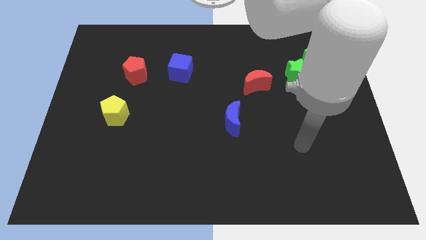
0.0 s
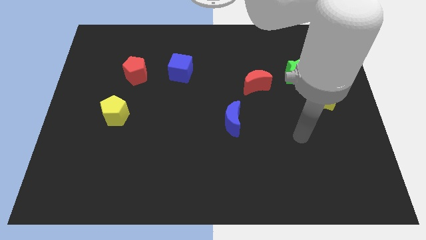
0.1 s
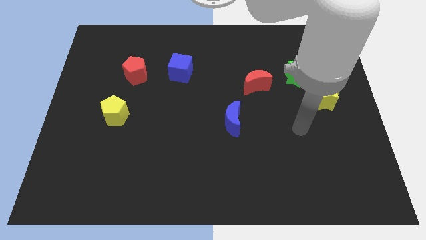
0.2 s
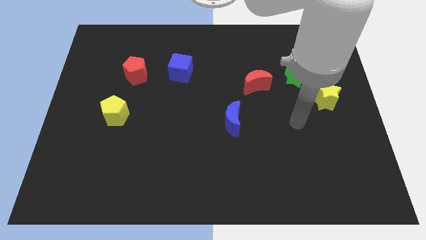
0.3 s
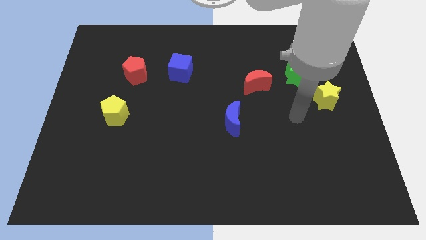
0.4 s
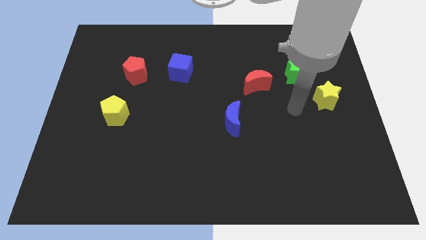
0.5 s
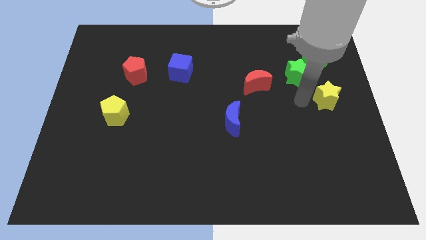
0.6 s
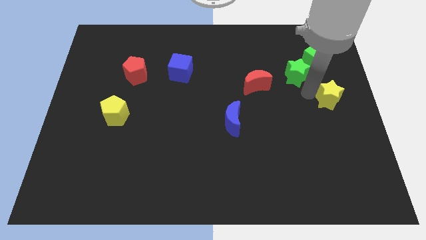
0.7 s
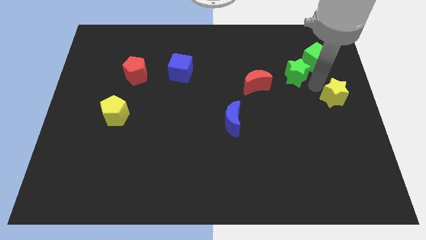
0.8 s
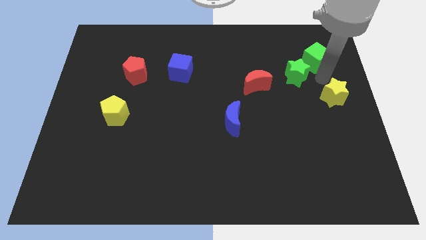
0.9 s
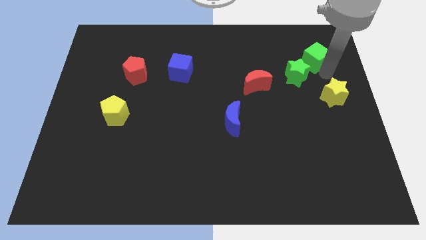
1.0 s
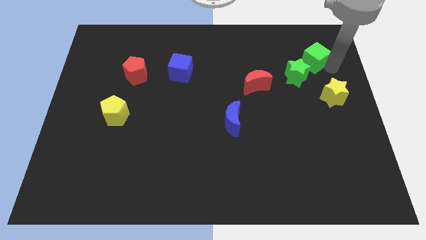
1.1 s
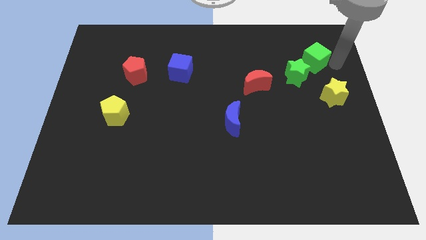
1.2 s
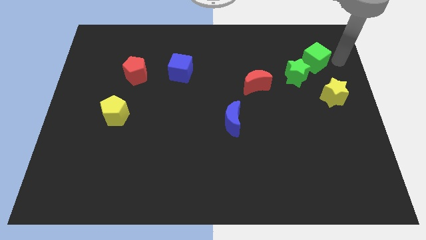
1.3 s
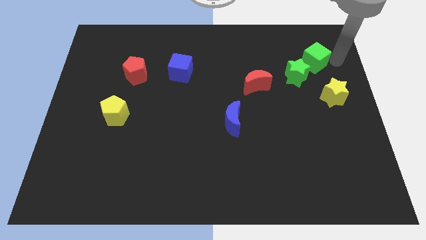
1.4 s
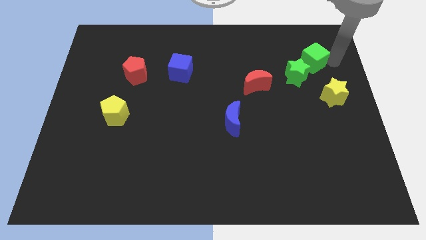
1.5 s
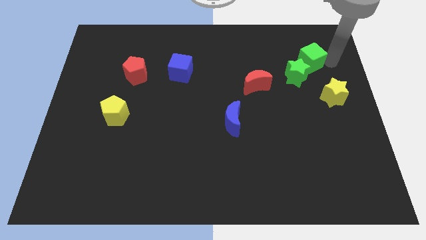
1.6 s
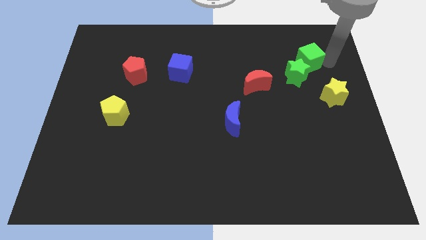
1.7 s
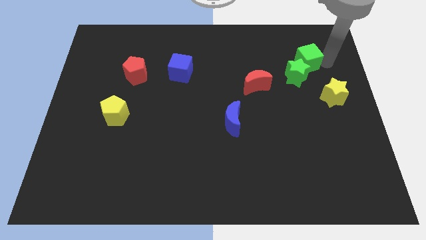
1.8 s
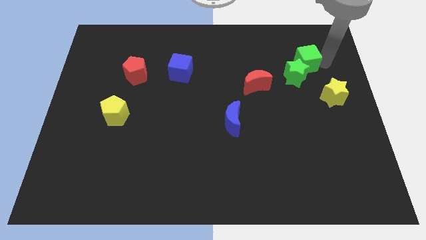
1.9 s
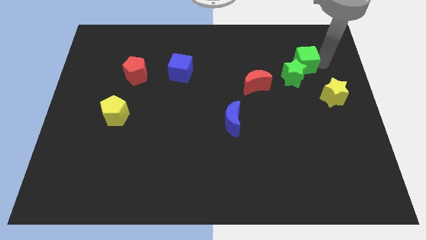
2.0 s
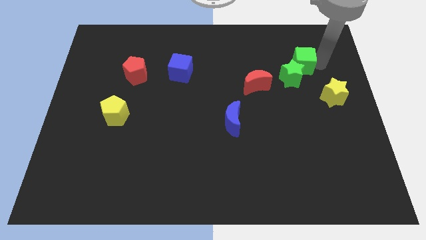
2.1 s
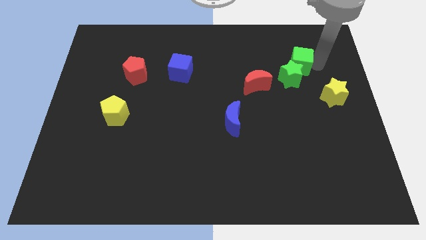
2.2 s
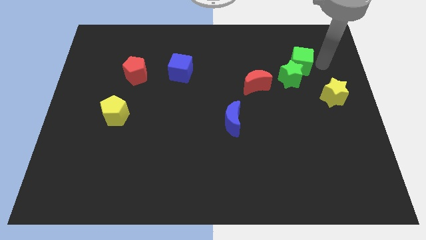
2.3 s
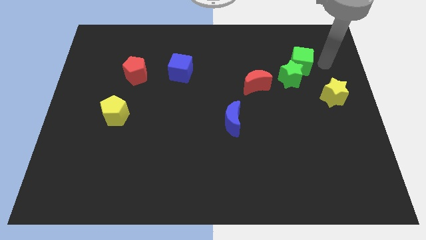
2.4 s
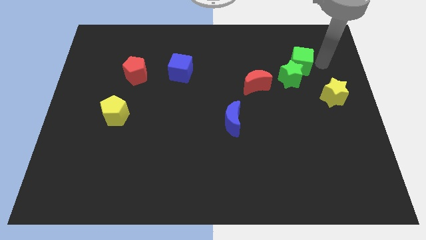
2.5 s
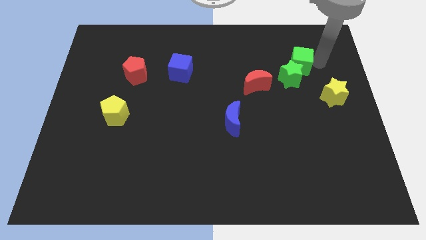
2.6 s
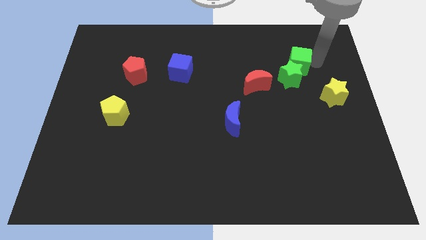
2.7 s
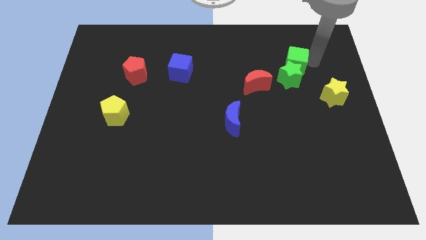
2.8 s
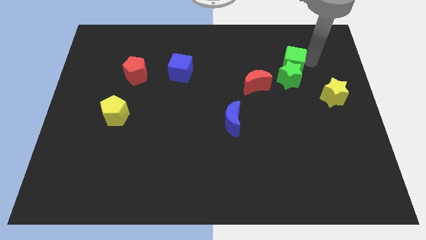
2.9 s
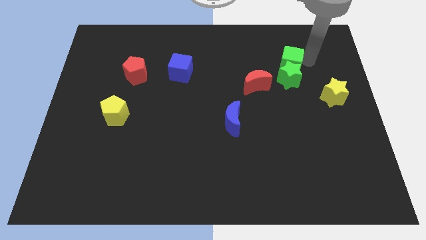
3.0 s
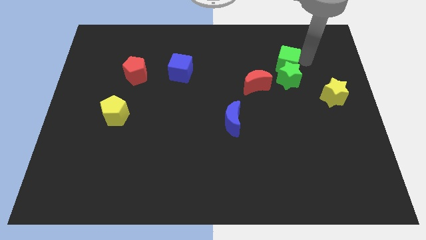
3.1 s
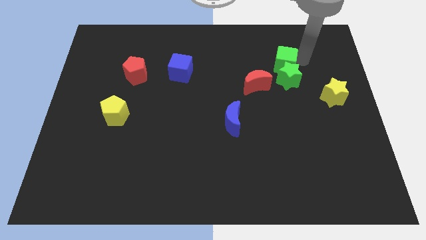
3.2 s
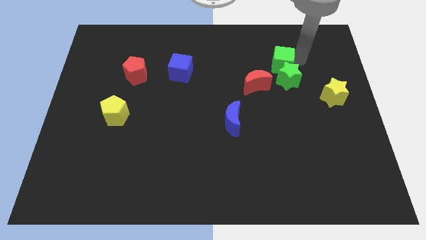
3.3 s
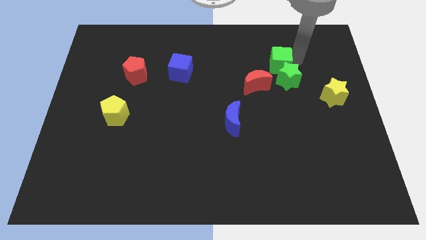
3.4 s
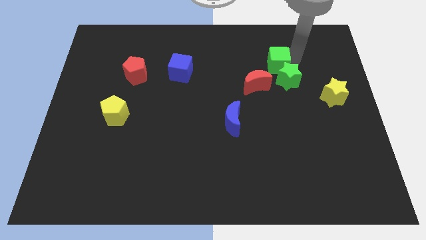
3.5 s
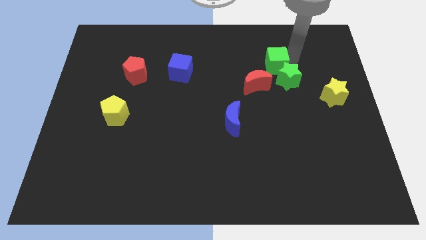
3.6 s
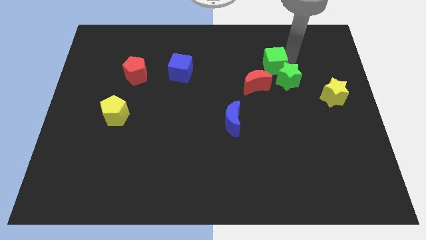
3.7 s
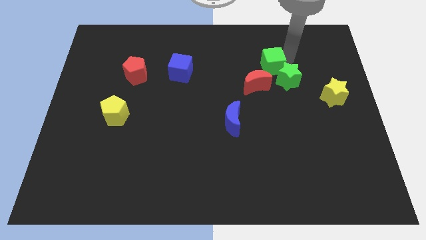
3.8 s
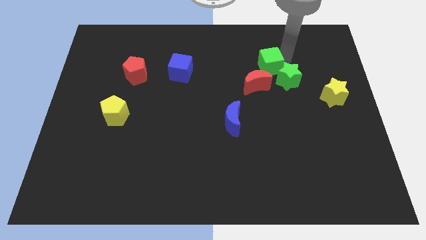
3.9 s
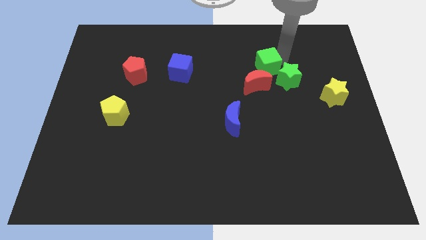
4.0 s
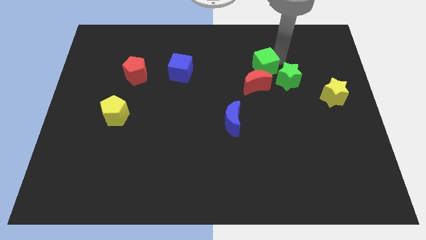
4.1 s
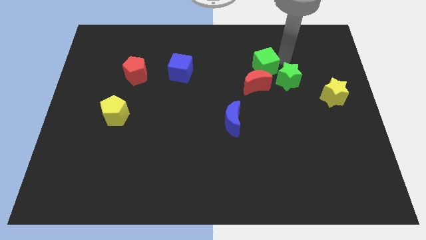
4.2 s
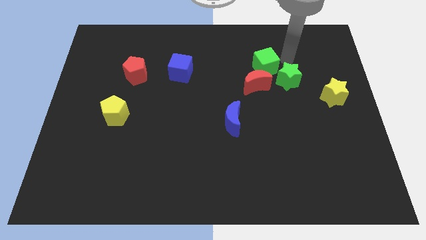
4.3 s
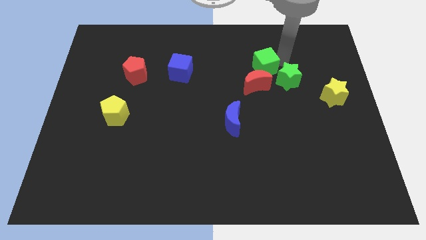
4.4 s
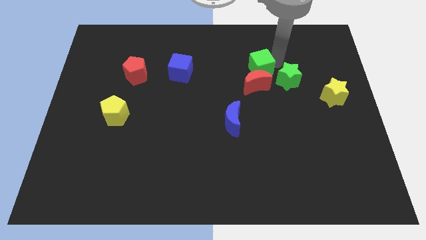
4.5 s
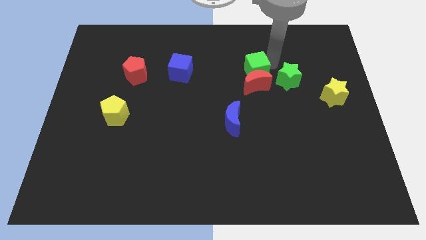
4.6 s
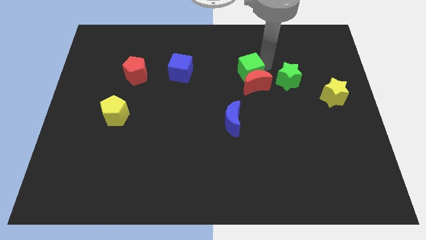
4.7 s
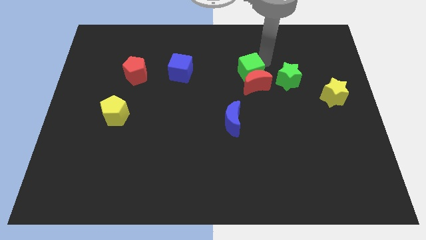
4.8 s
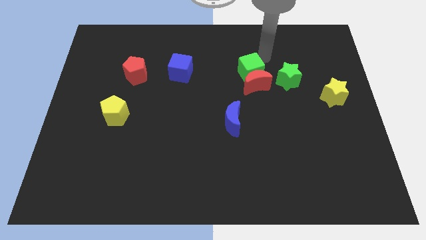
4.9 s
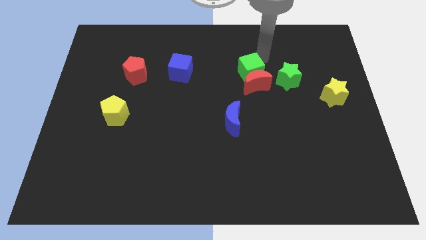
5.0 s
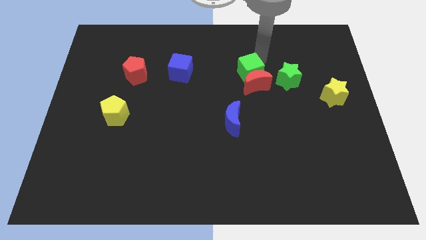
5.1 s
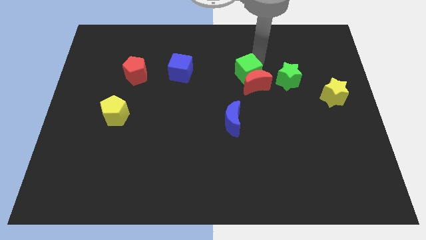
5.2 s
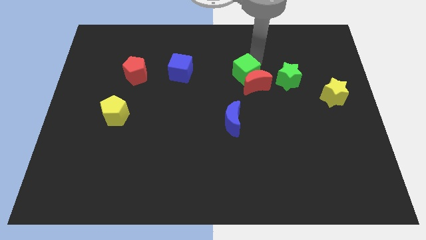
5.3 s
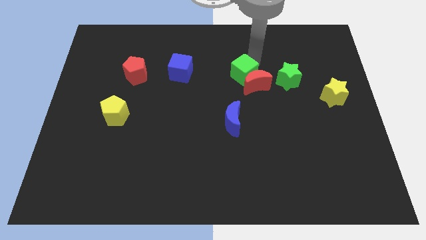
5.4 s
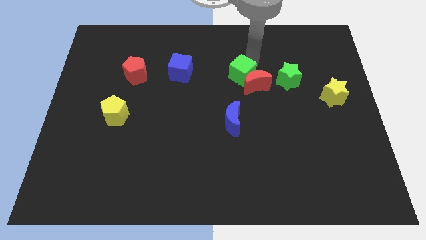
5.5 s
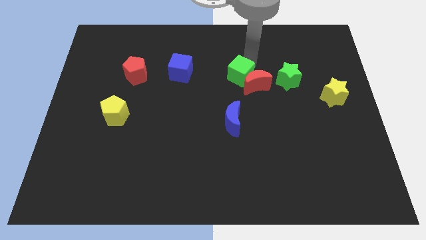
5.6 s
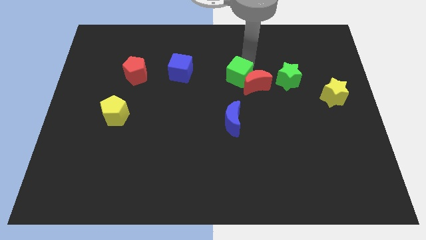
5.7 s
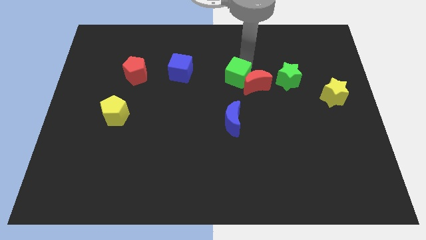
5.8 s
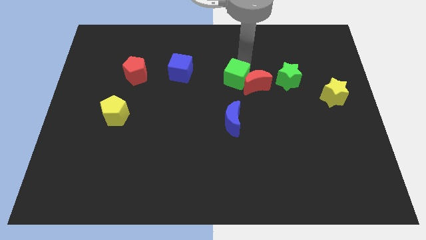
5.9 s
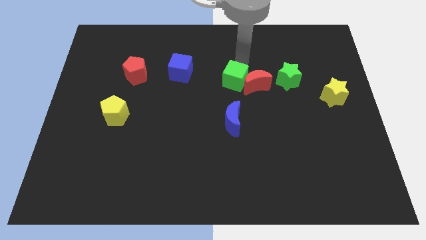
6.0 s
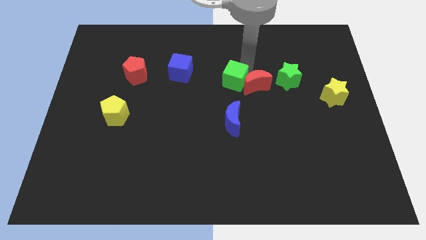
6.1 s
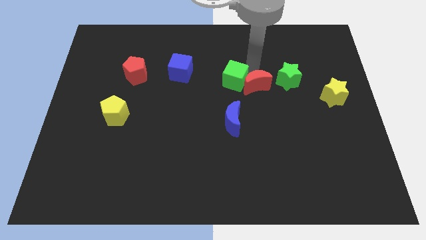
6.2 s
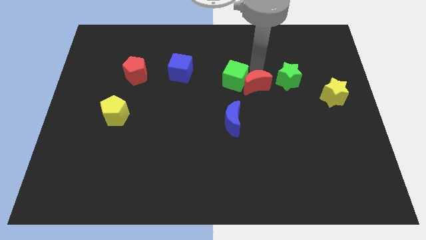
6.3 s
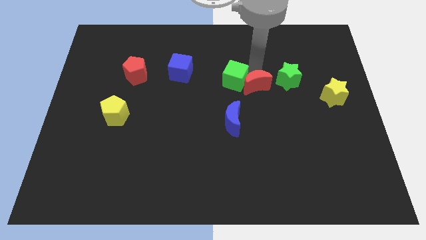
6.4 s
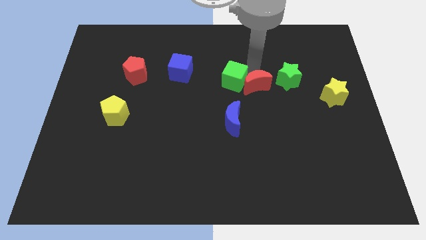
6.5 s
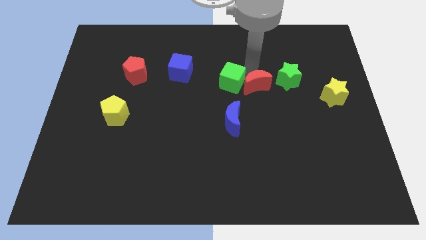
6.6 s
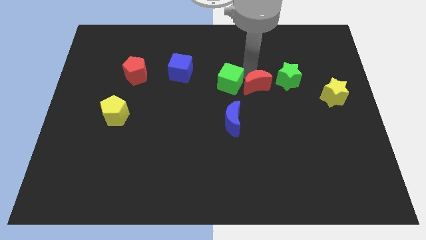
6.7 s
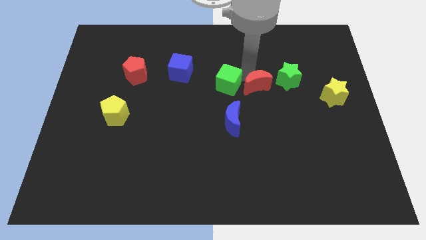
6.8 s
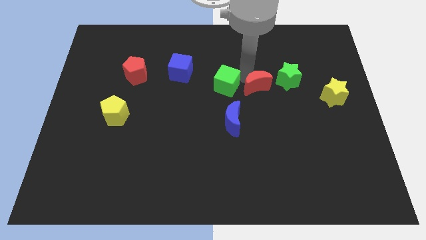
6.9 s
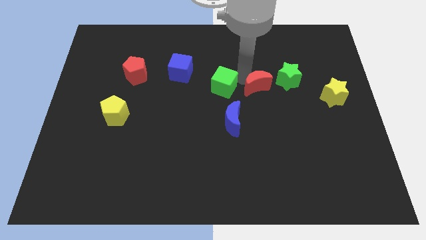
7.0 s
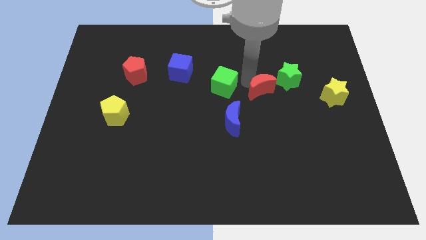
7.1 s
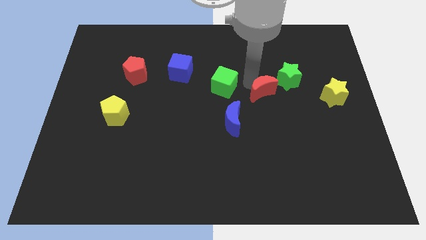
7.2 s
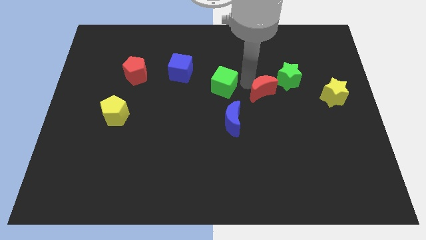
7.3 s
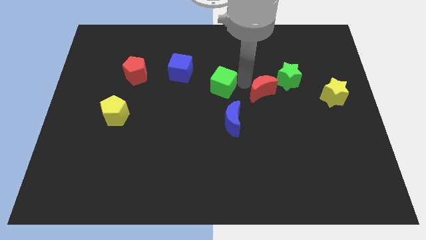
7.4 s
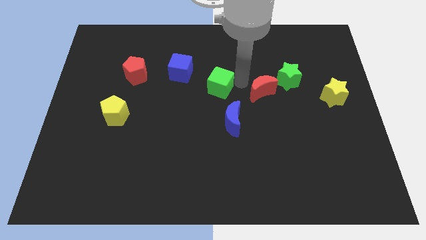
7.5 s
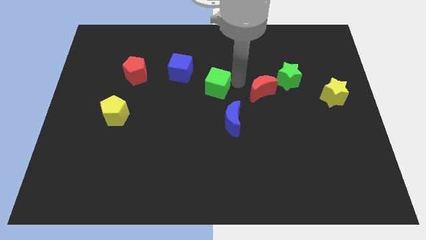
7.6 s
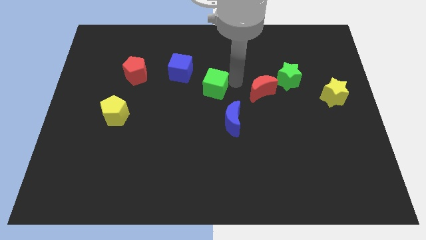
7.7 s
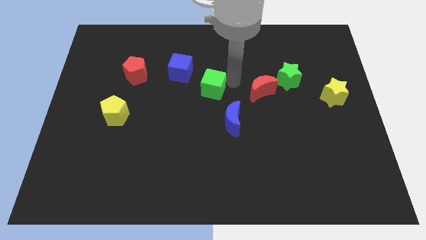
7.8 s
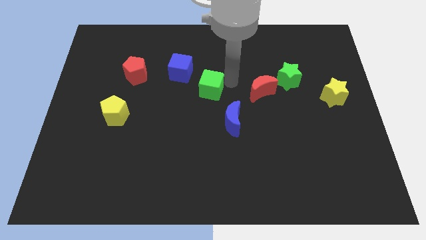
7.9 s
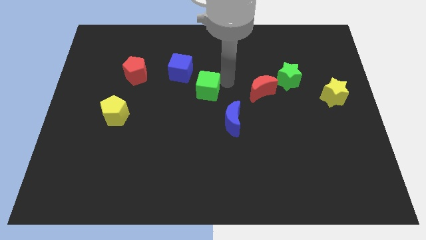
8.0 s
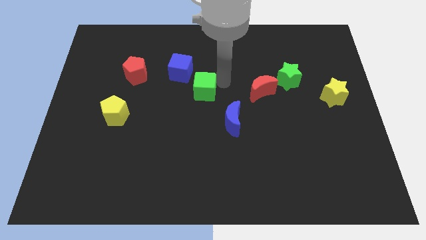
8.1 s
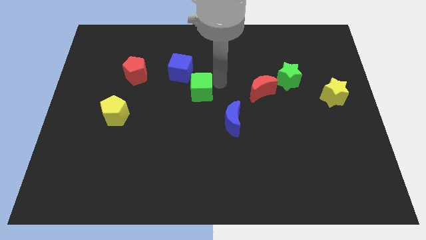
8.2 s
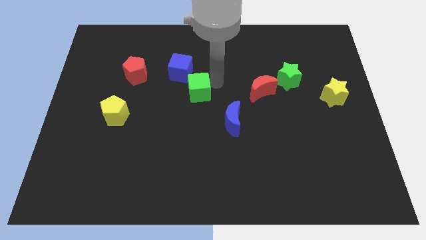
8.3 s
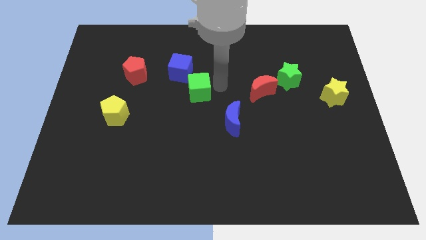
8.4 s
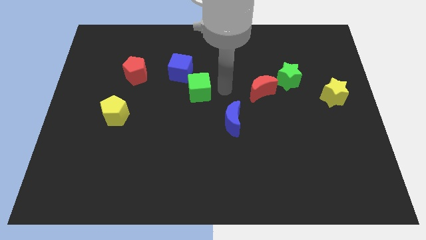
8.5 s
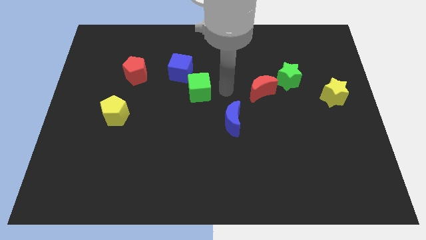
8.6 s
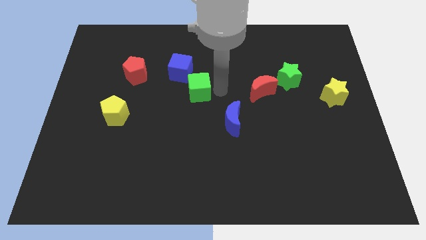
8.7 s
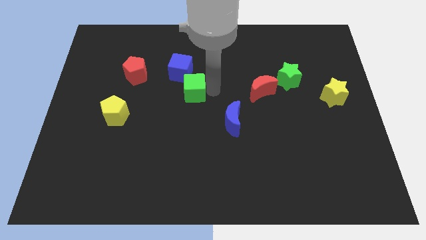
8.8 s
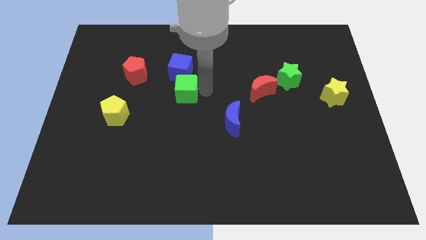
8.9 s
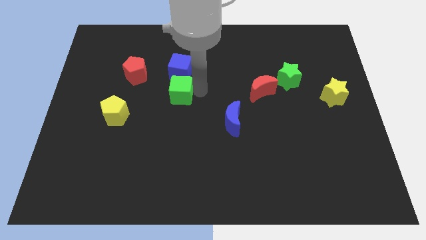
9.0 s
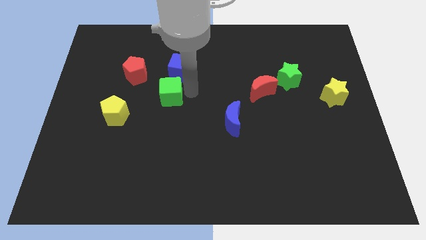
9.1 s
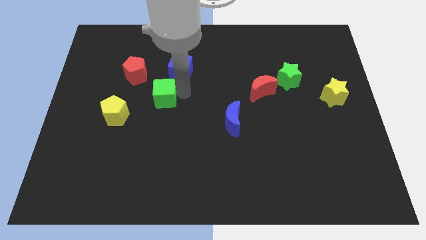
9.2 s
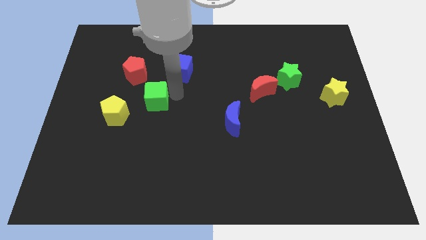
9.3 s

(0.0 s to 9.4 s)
move the green cube diagonally up and to the right of the yellow pentagon
